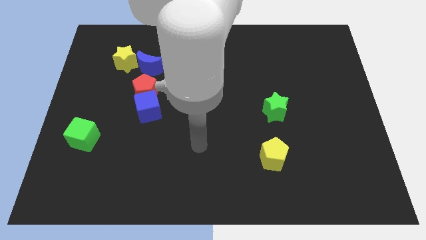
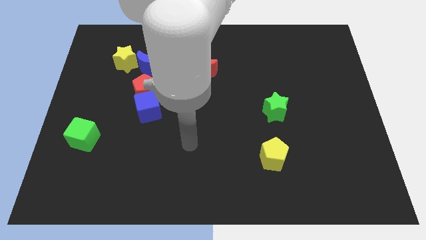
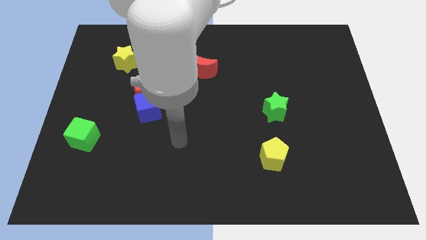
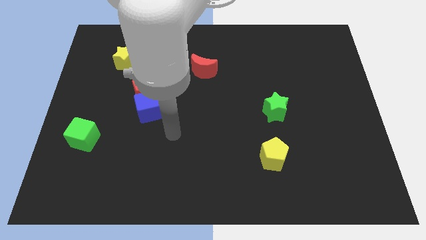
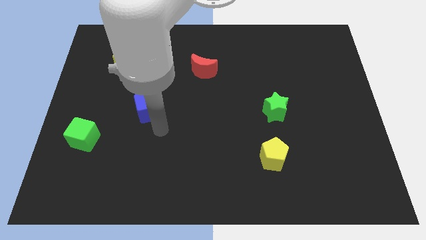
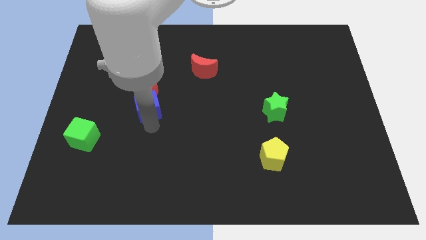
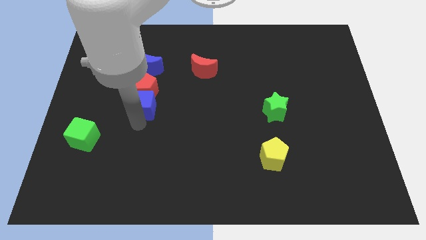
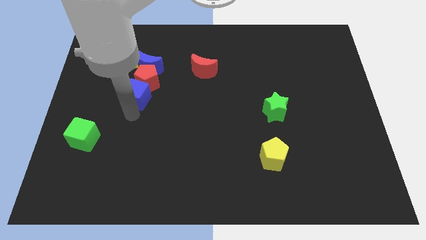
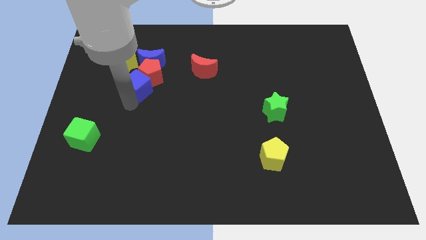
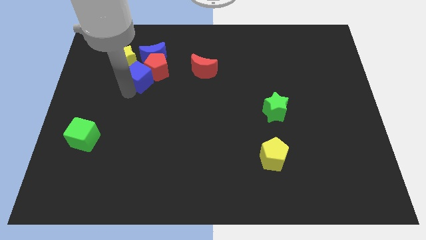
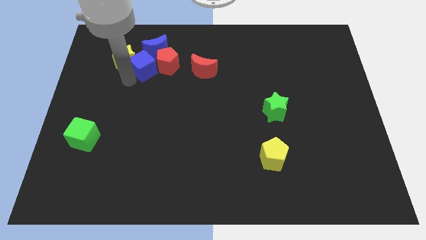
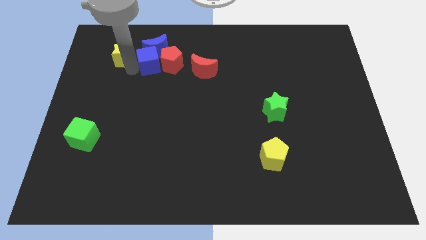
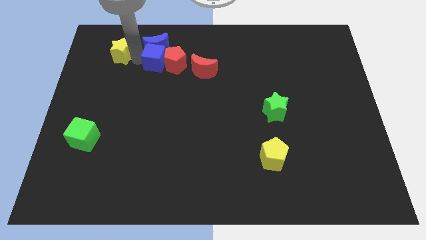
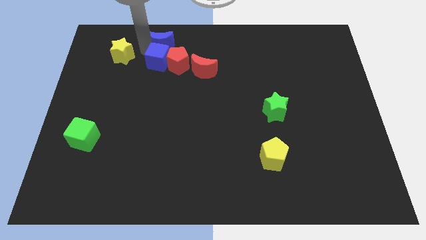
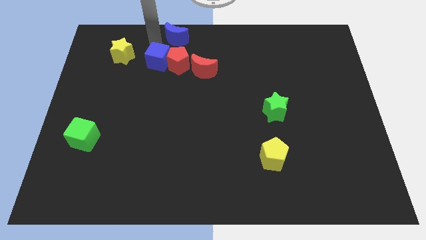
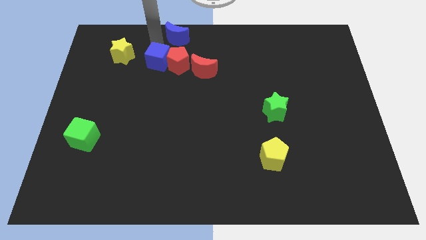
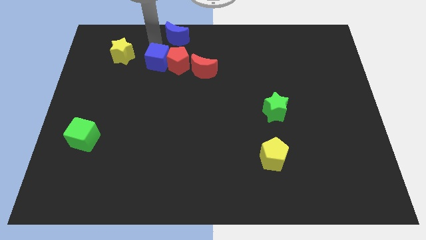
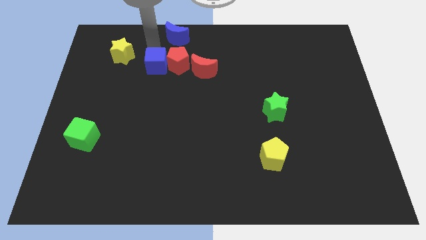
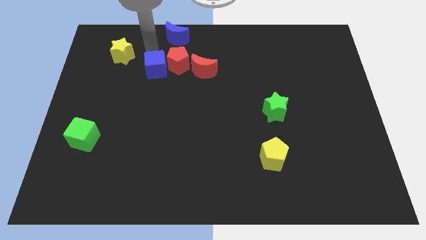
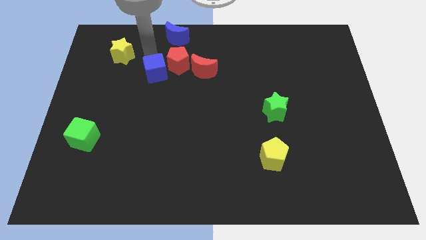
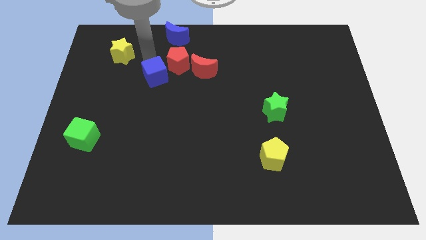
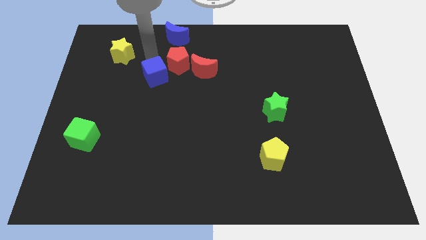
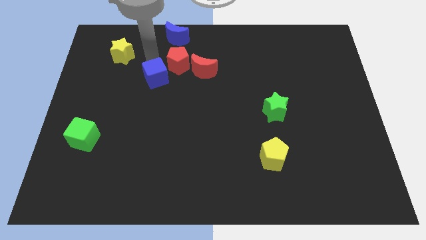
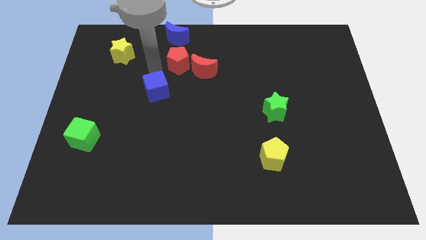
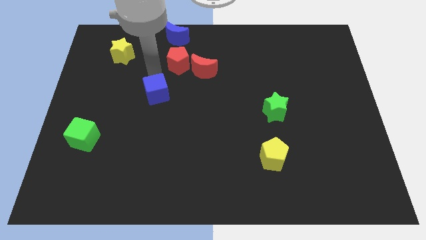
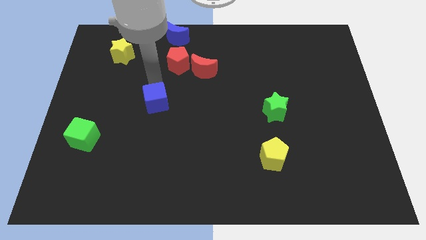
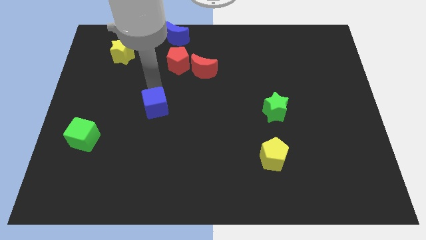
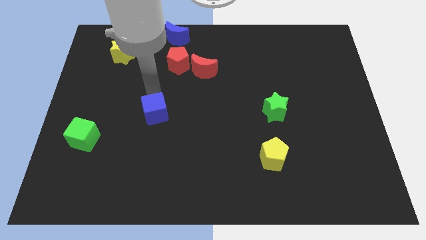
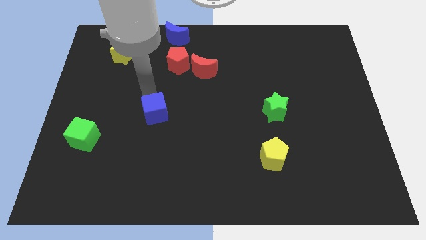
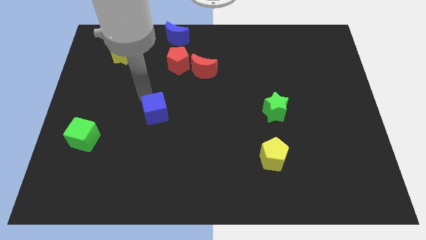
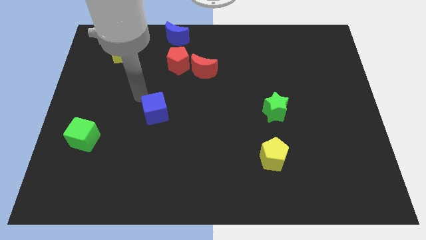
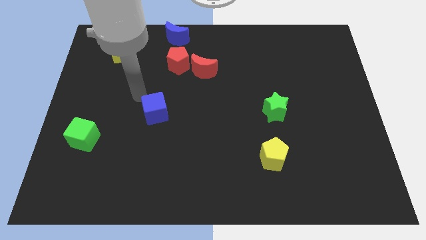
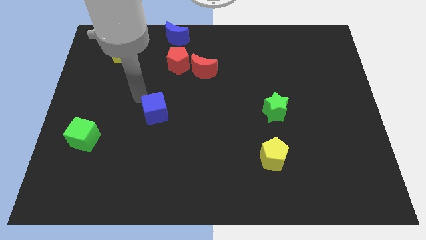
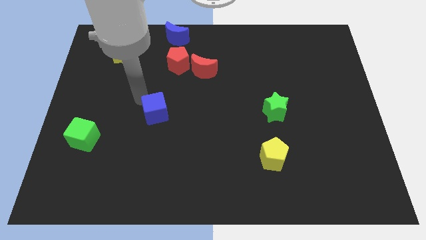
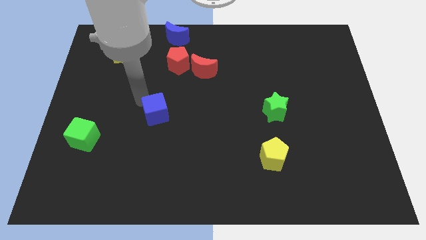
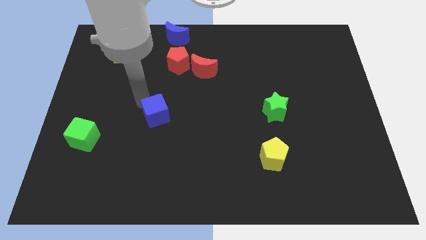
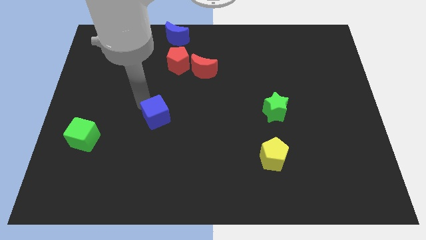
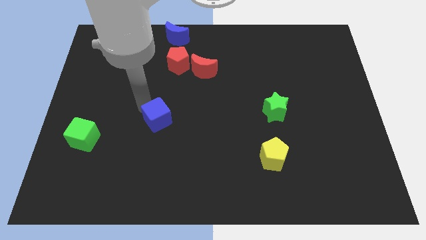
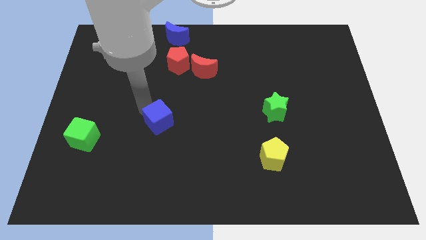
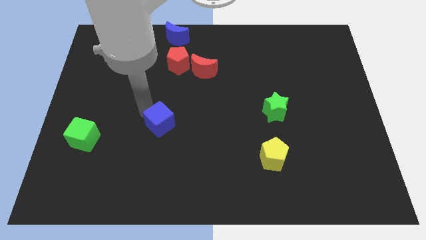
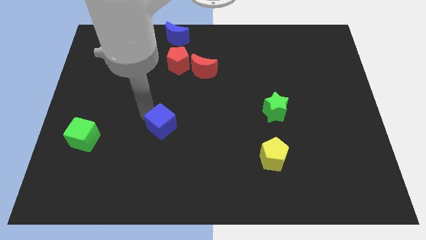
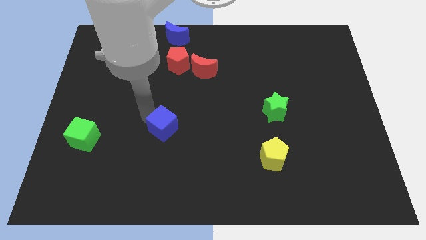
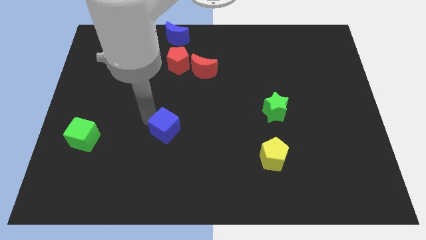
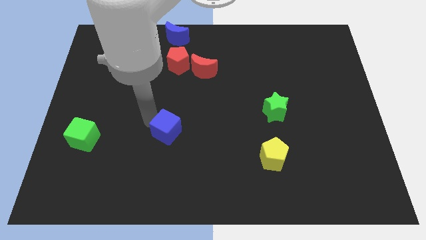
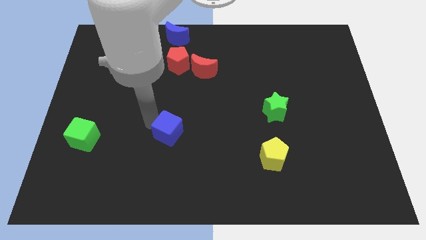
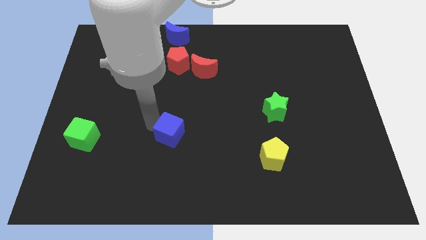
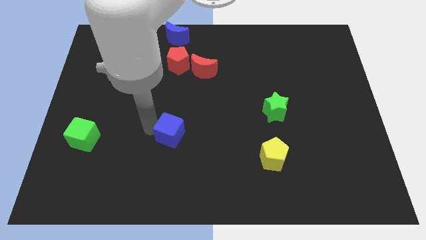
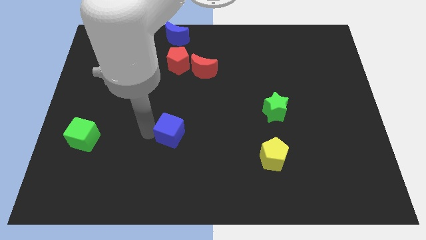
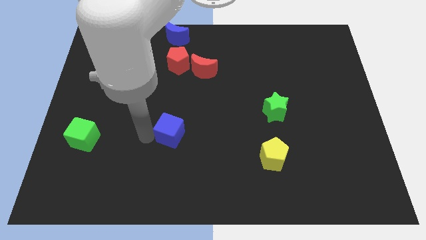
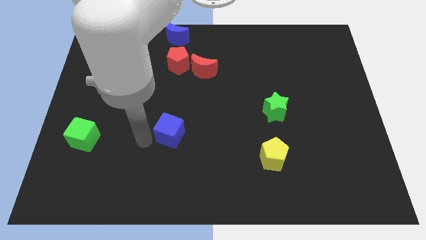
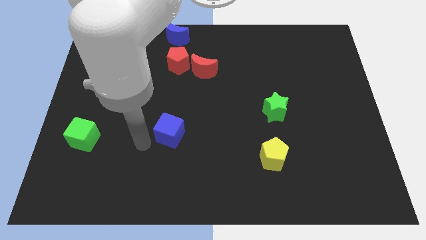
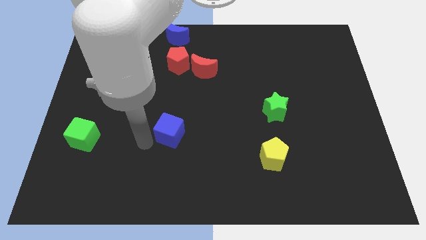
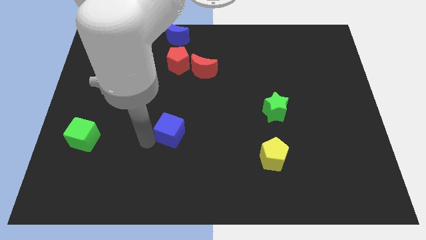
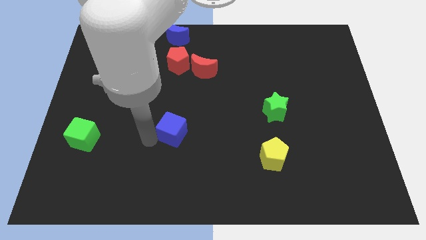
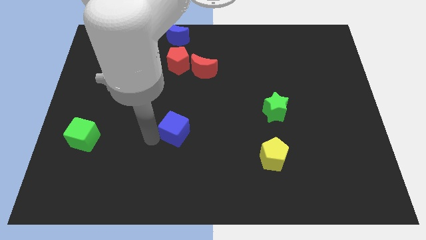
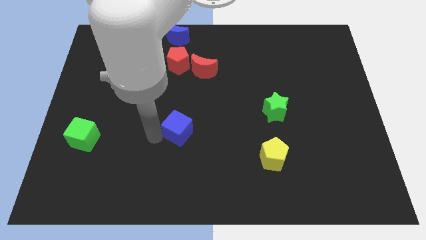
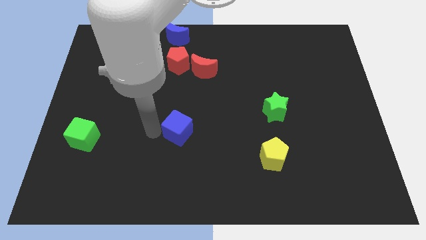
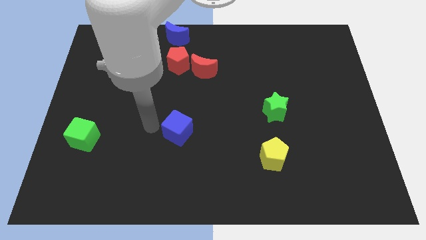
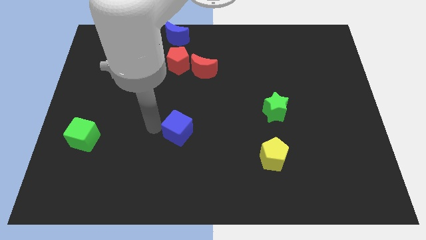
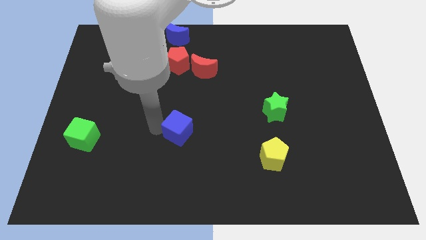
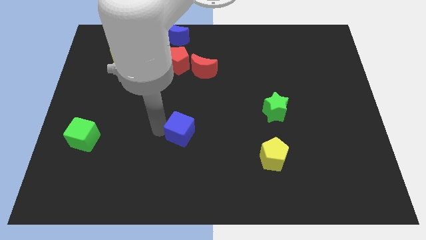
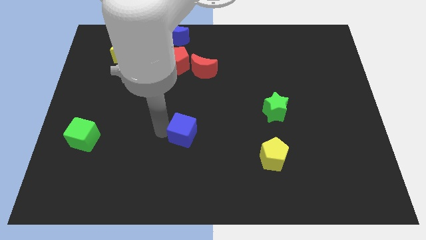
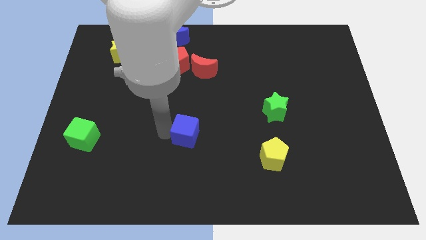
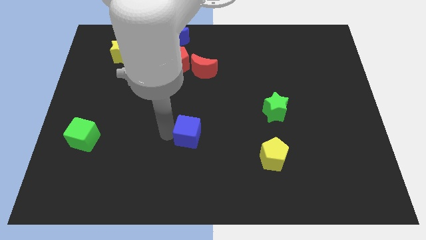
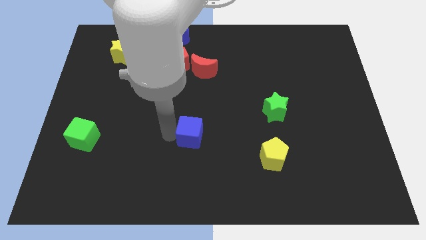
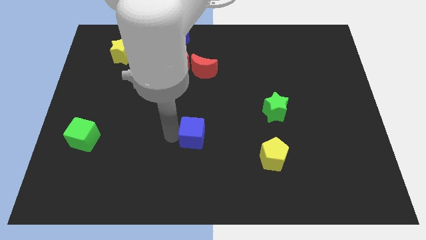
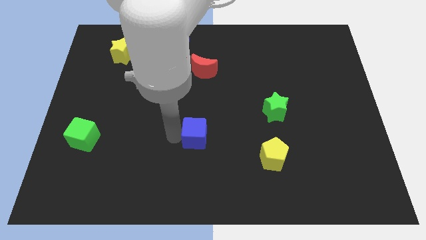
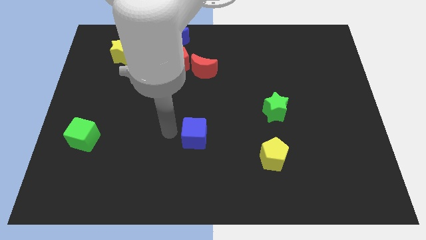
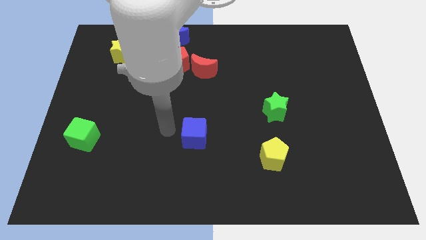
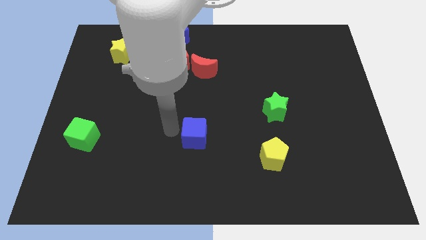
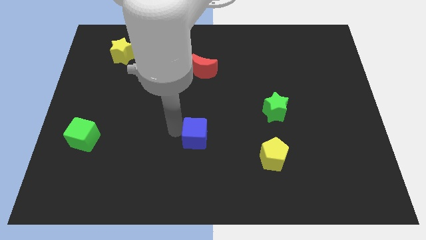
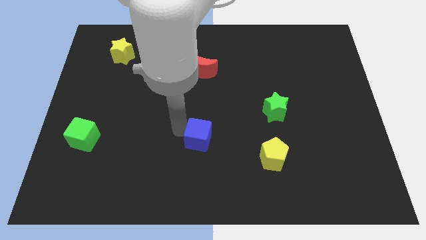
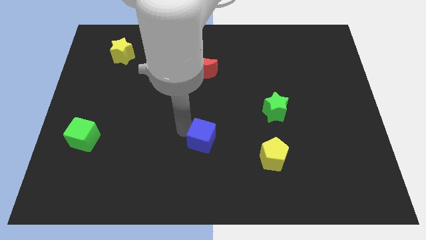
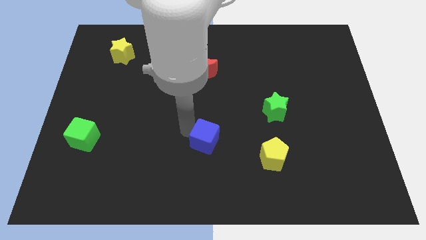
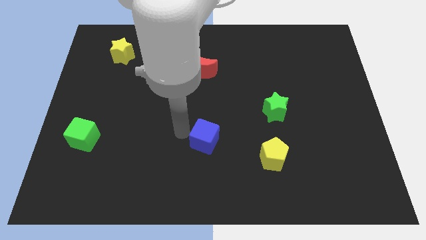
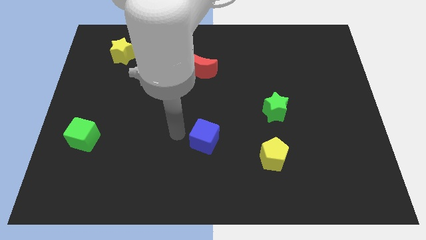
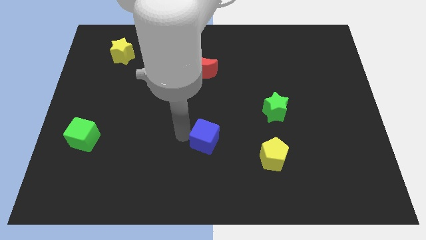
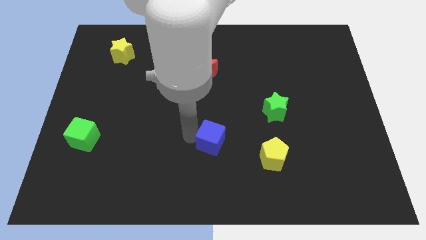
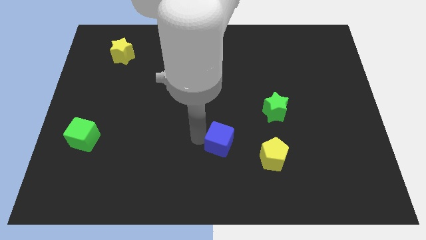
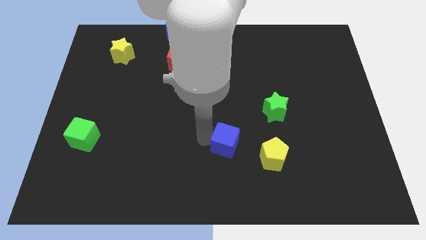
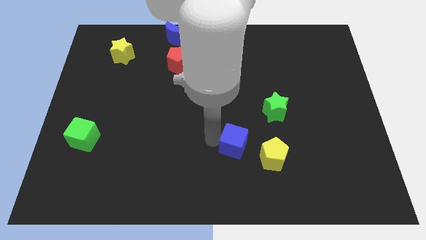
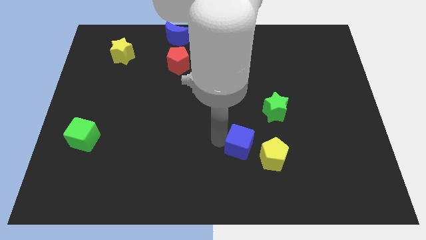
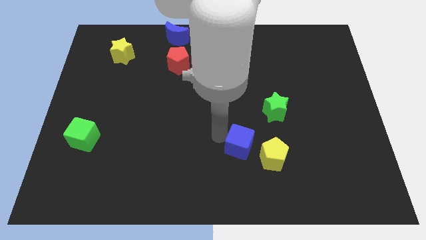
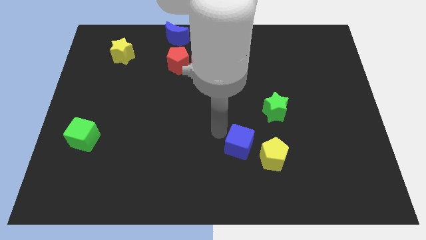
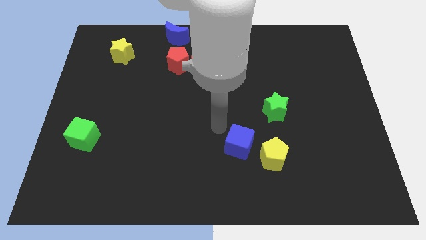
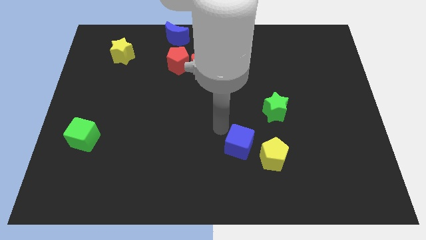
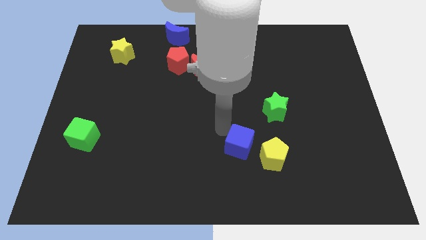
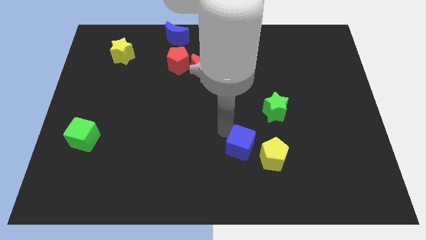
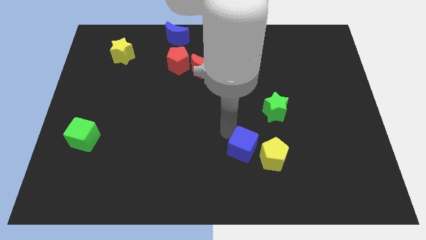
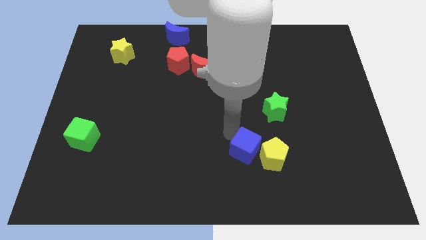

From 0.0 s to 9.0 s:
push the blue cube next to the yellow pentagon
